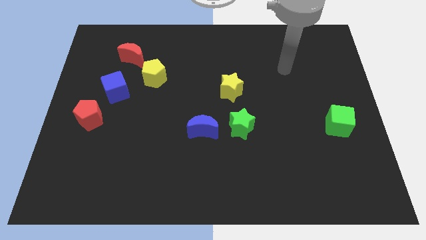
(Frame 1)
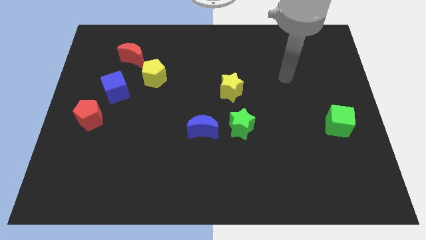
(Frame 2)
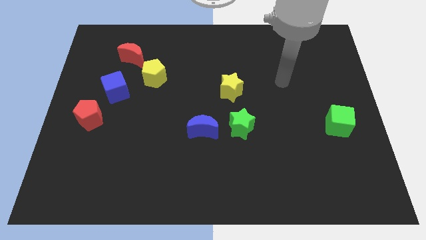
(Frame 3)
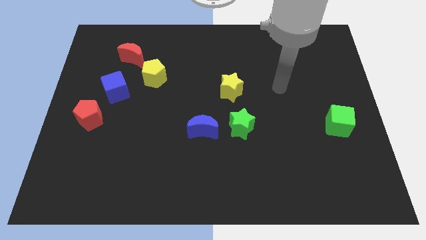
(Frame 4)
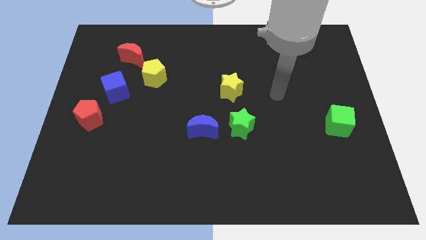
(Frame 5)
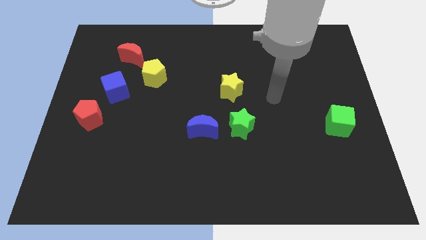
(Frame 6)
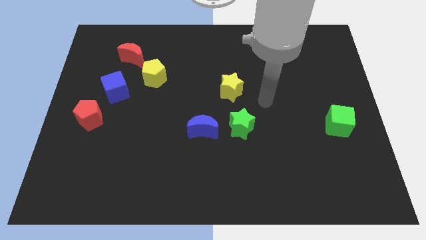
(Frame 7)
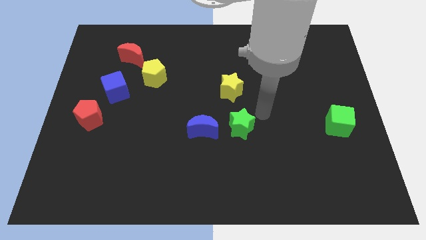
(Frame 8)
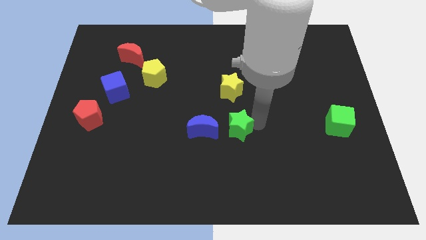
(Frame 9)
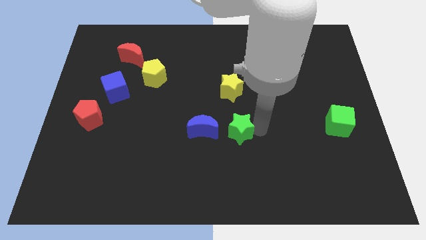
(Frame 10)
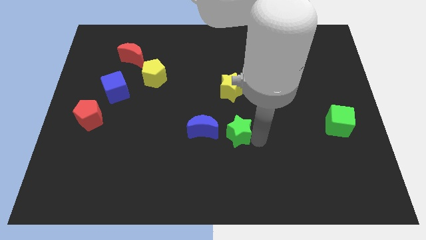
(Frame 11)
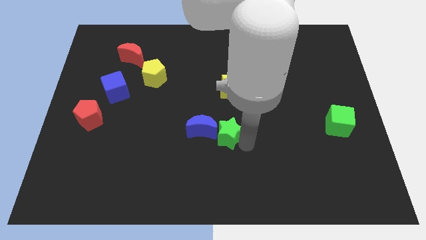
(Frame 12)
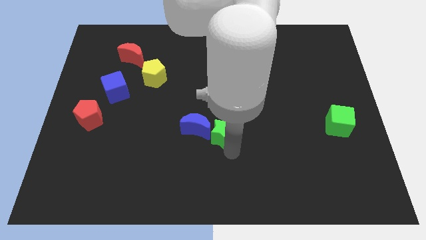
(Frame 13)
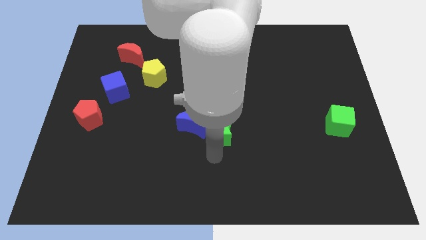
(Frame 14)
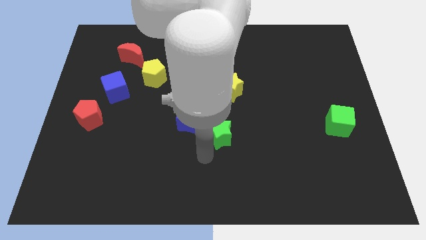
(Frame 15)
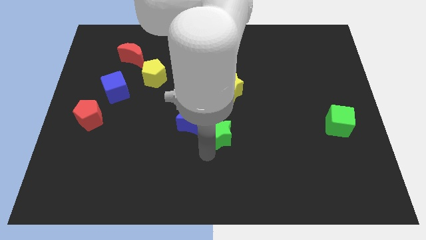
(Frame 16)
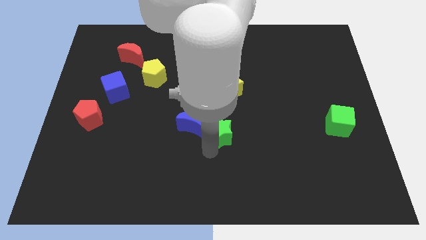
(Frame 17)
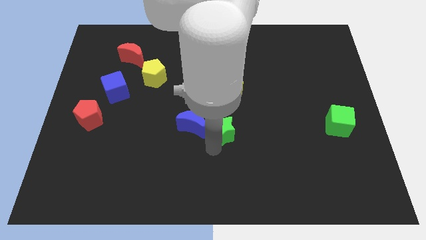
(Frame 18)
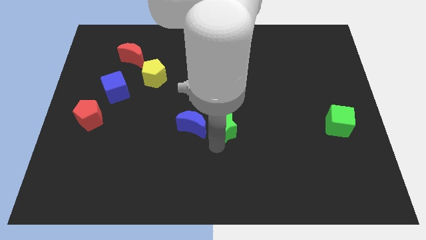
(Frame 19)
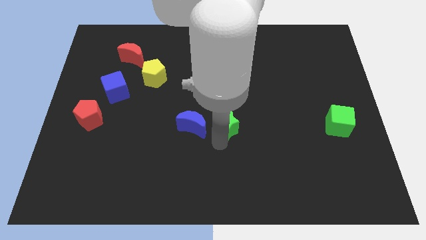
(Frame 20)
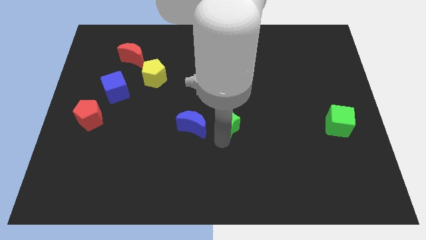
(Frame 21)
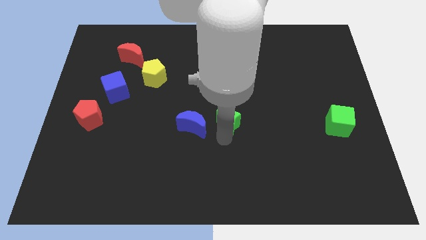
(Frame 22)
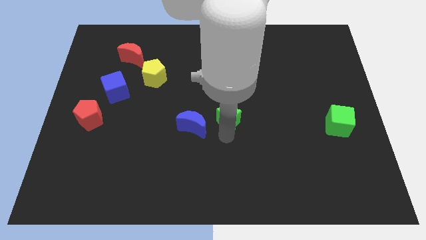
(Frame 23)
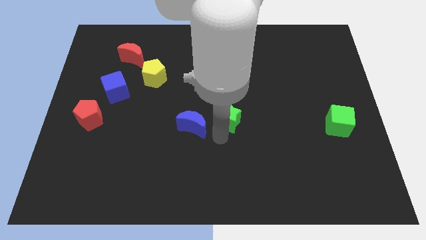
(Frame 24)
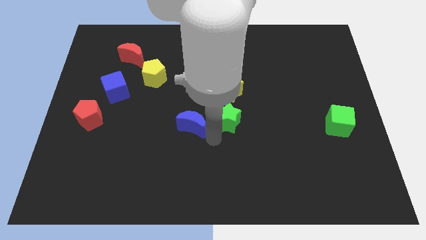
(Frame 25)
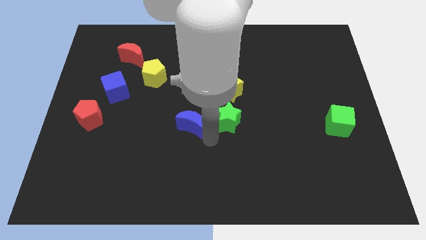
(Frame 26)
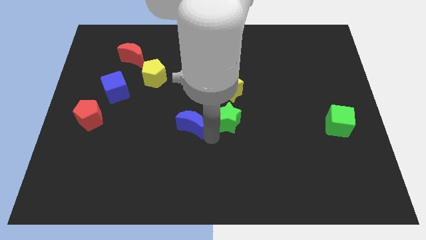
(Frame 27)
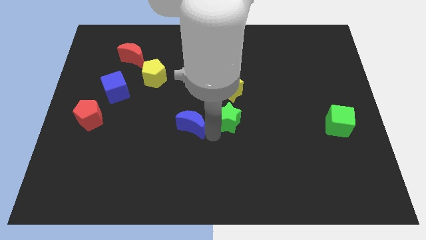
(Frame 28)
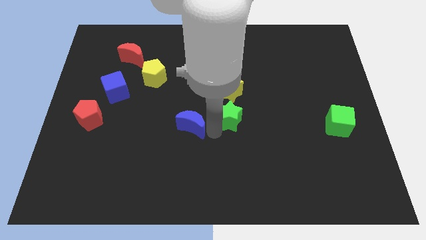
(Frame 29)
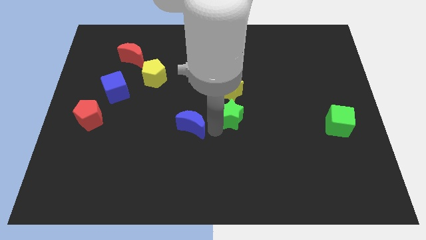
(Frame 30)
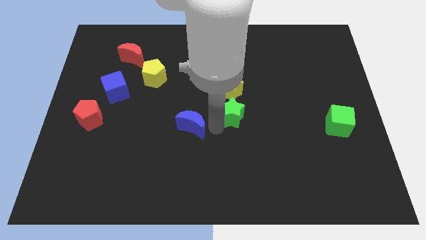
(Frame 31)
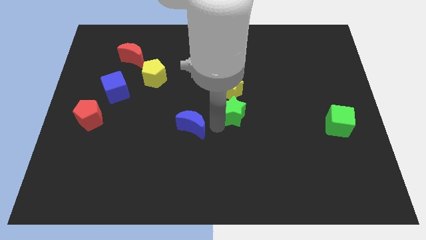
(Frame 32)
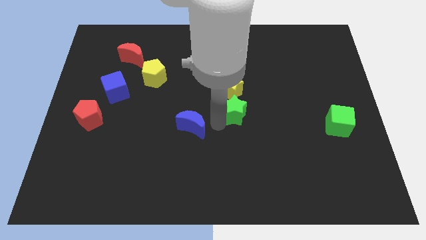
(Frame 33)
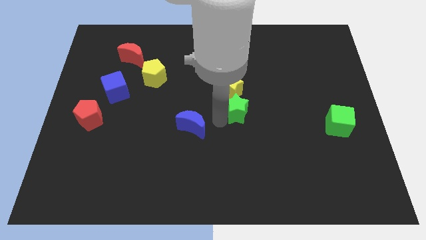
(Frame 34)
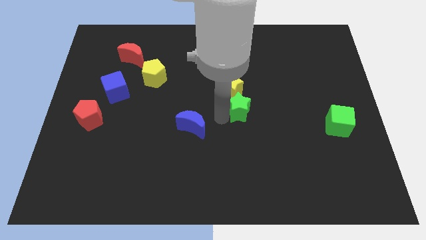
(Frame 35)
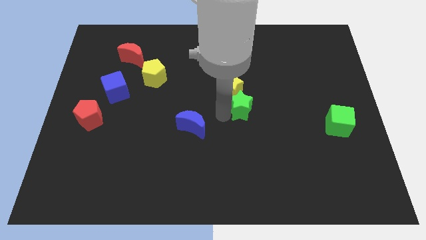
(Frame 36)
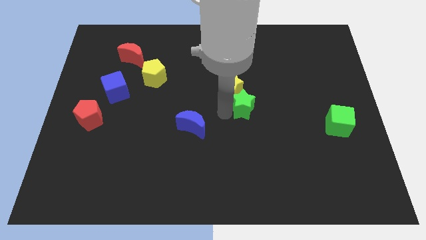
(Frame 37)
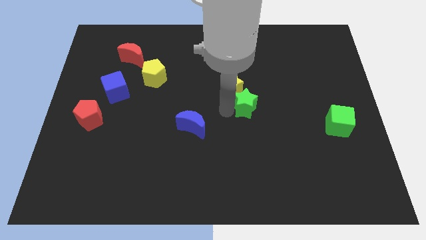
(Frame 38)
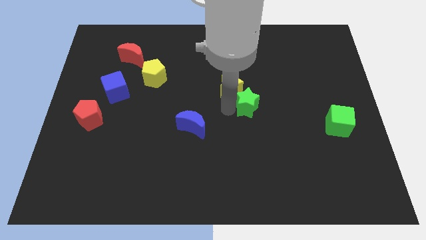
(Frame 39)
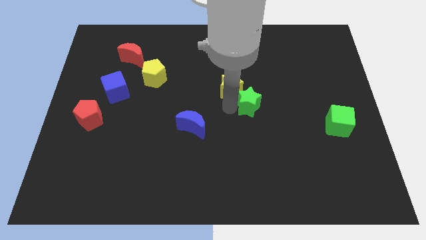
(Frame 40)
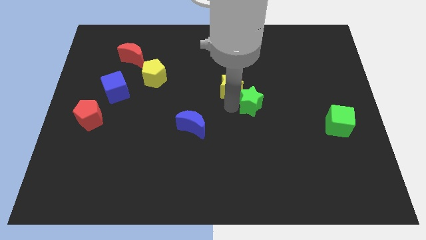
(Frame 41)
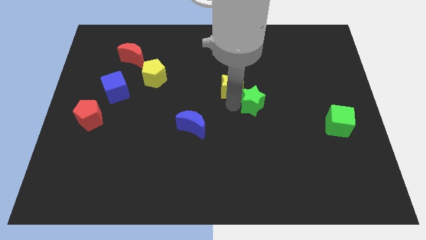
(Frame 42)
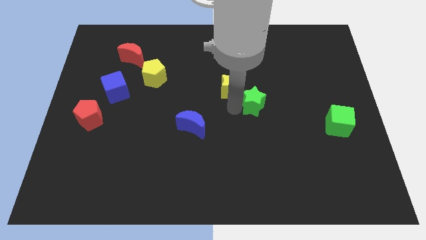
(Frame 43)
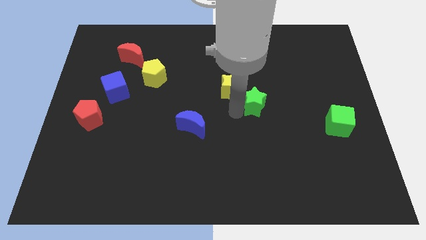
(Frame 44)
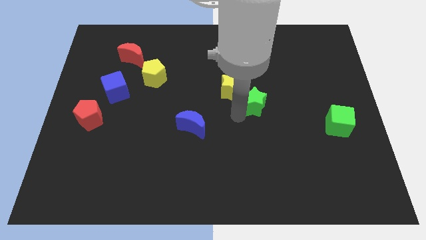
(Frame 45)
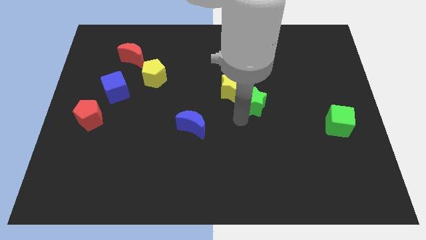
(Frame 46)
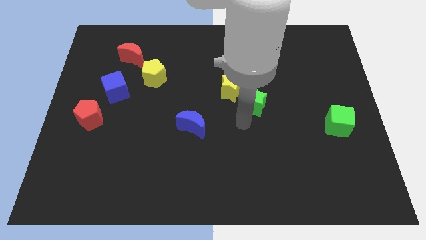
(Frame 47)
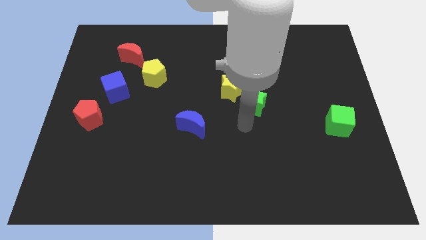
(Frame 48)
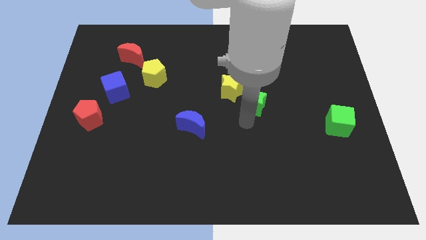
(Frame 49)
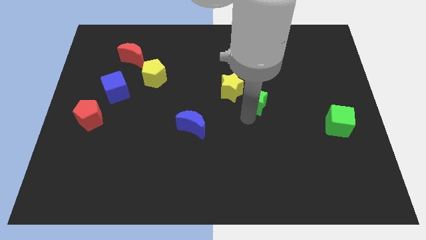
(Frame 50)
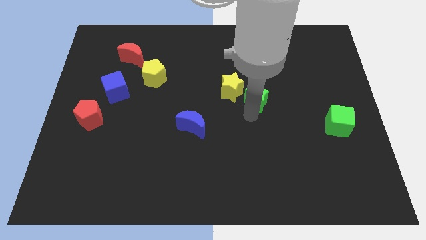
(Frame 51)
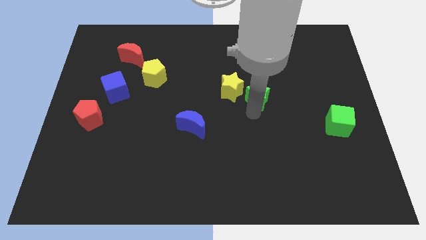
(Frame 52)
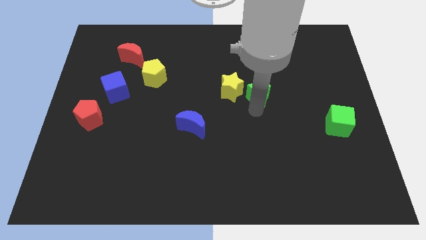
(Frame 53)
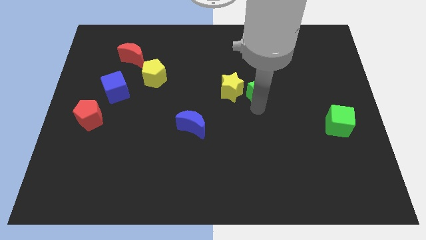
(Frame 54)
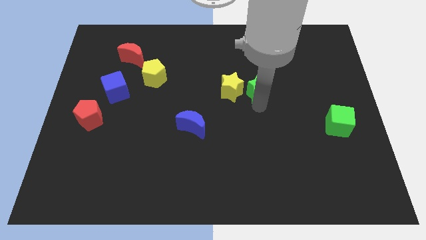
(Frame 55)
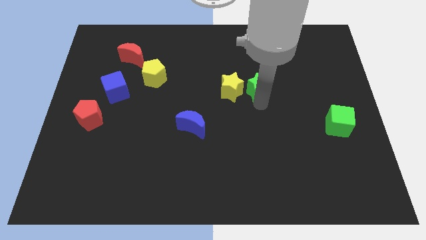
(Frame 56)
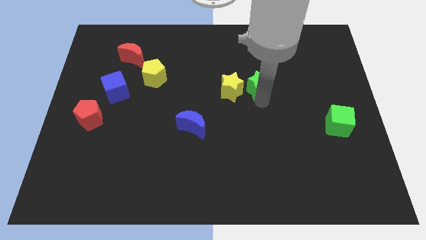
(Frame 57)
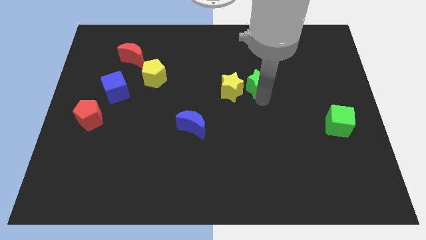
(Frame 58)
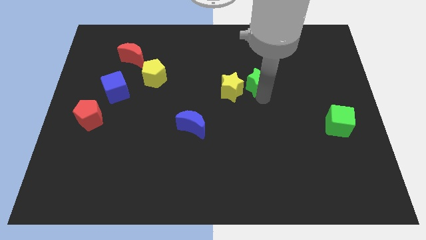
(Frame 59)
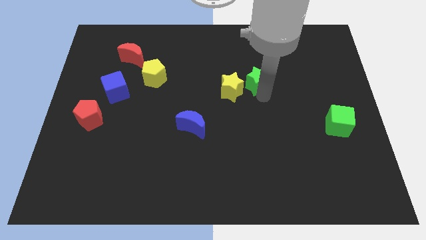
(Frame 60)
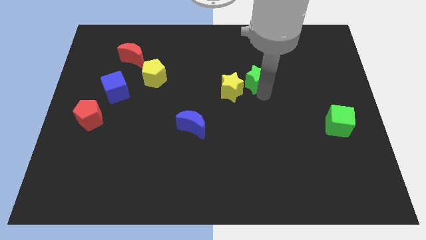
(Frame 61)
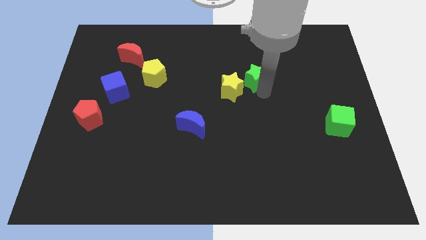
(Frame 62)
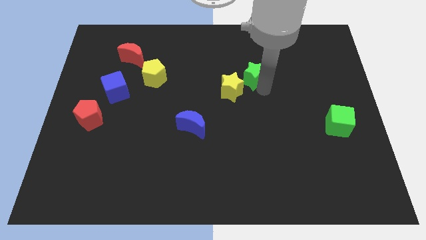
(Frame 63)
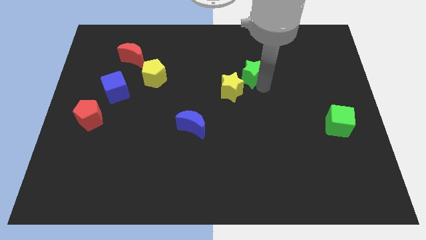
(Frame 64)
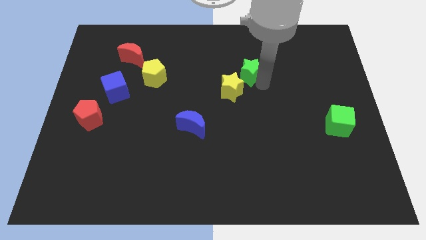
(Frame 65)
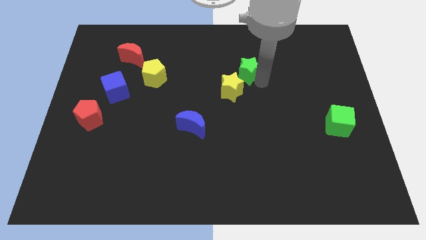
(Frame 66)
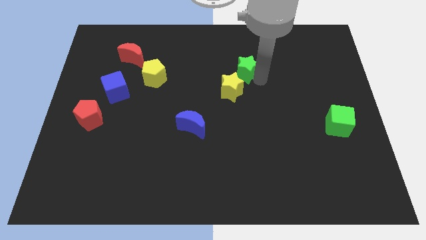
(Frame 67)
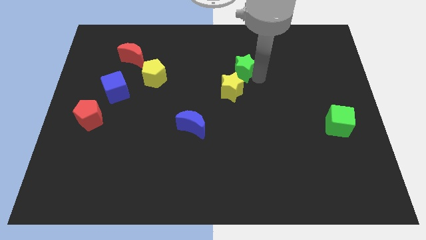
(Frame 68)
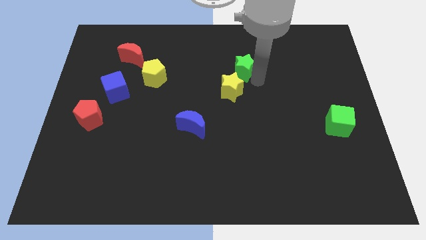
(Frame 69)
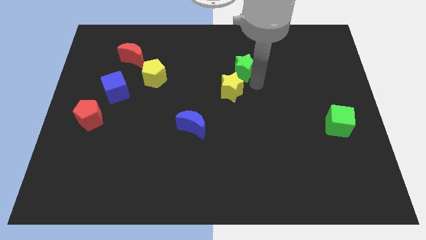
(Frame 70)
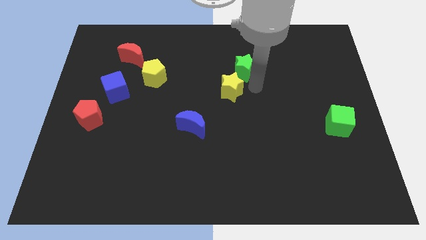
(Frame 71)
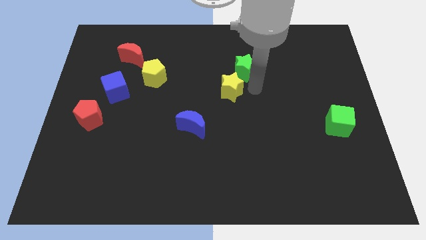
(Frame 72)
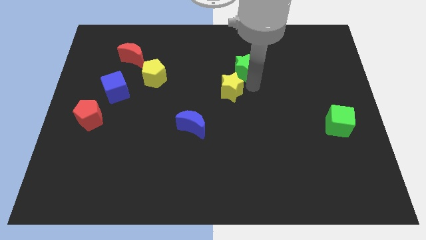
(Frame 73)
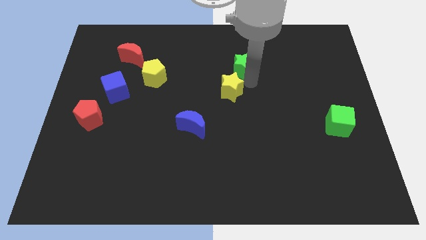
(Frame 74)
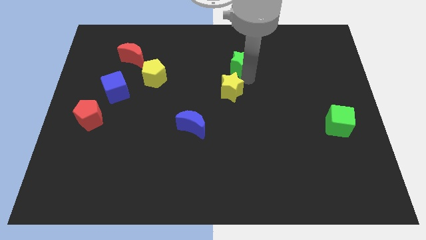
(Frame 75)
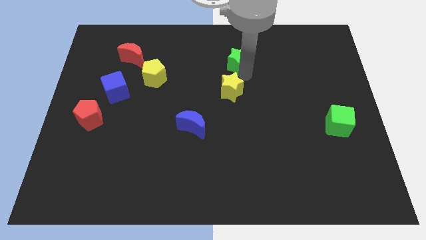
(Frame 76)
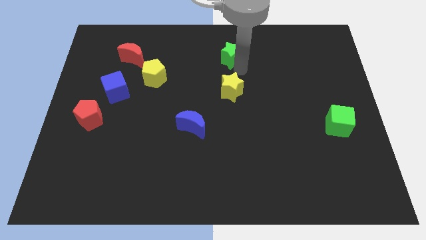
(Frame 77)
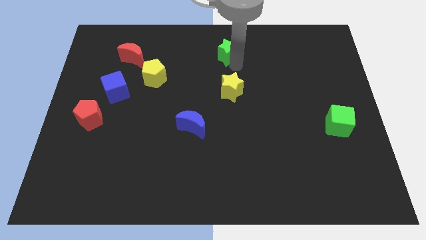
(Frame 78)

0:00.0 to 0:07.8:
push the green star to the towards your base

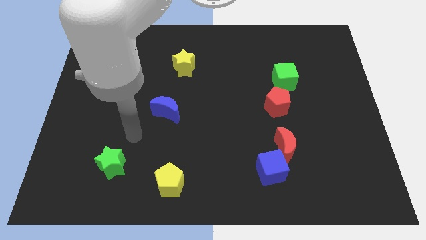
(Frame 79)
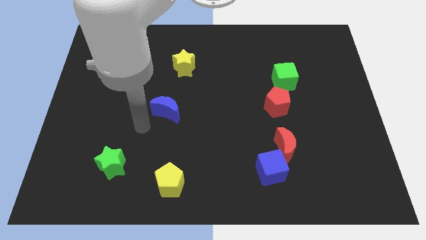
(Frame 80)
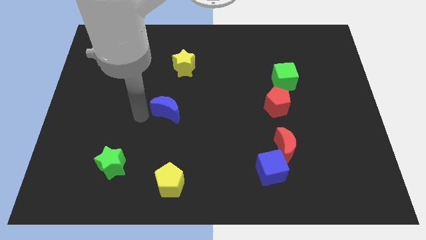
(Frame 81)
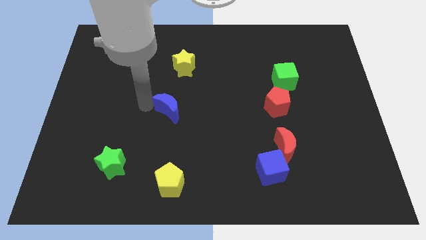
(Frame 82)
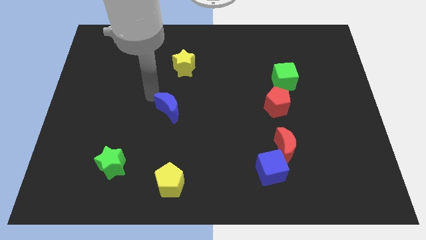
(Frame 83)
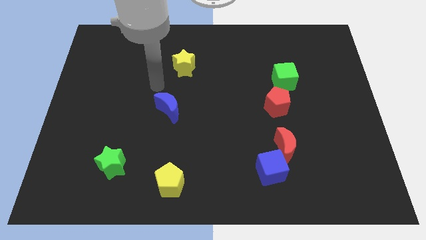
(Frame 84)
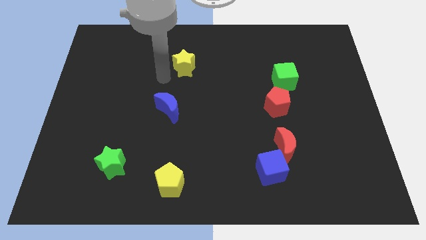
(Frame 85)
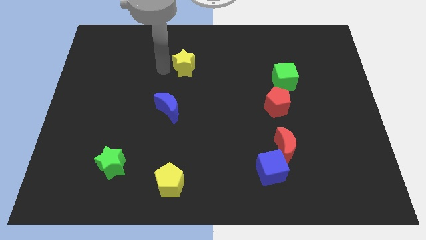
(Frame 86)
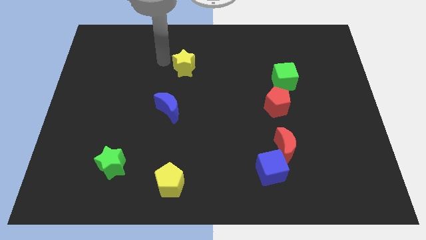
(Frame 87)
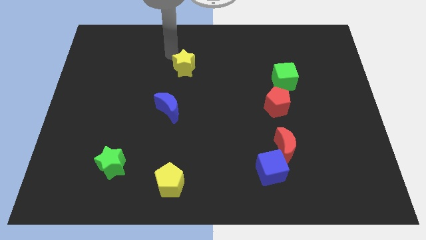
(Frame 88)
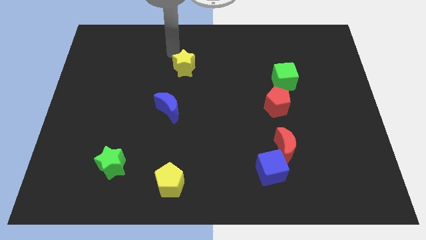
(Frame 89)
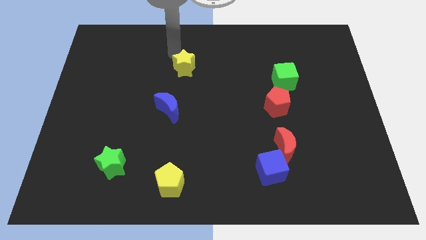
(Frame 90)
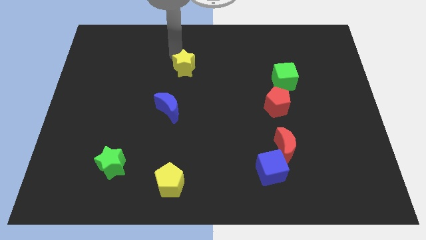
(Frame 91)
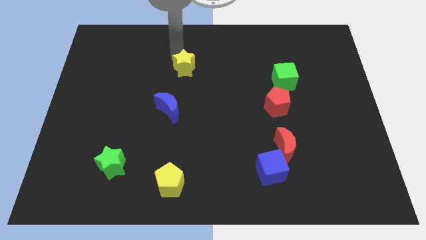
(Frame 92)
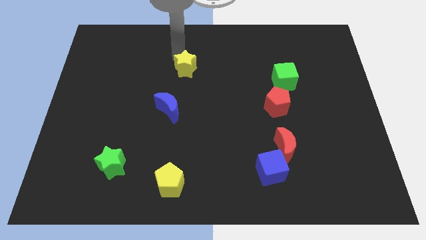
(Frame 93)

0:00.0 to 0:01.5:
put the yellow star to the center of the board
